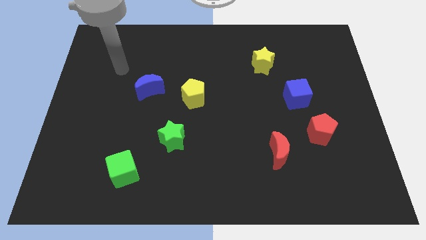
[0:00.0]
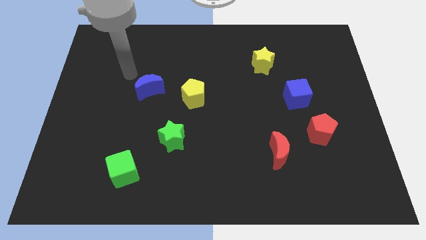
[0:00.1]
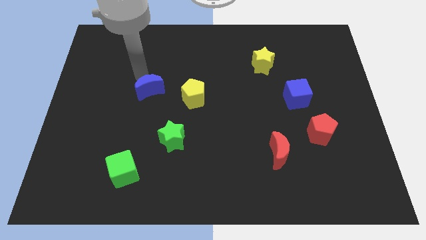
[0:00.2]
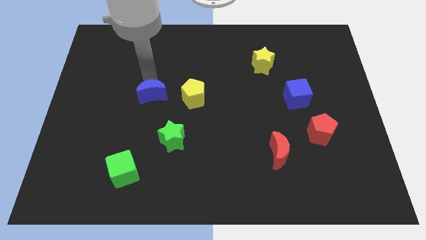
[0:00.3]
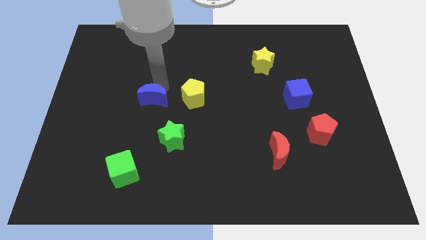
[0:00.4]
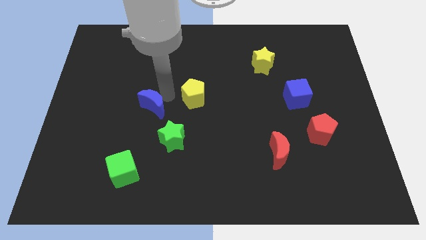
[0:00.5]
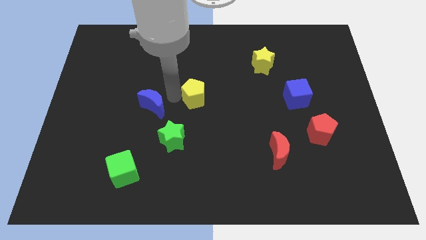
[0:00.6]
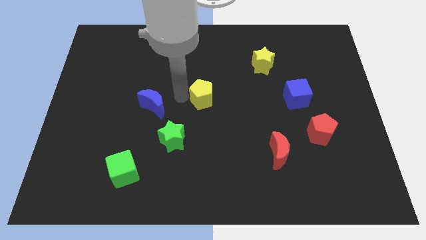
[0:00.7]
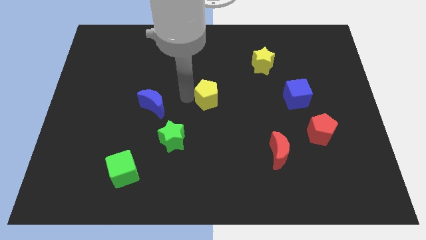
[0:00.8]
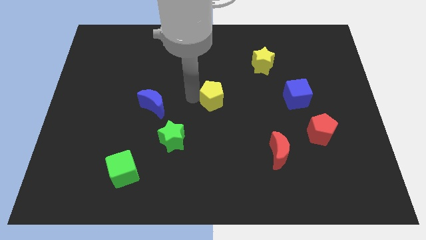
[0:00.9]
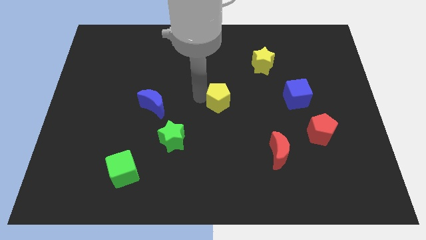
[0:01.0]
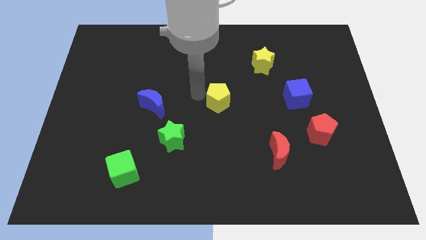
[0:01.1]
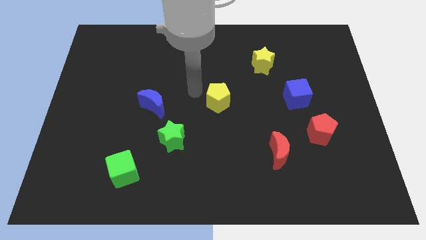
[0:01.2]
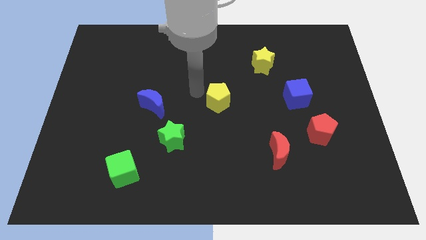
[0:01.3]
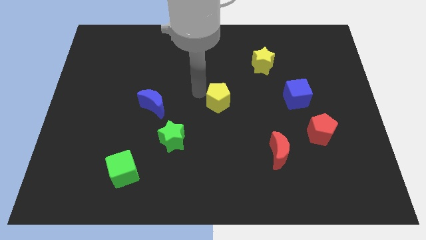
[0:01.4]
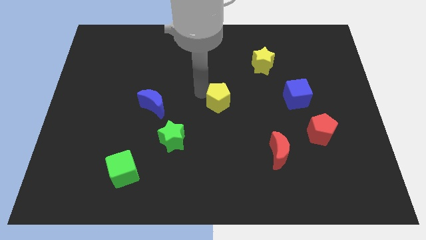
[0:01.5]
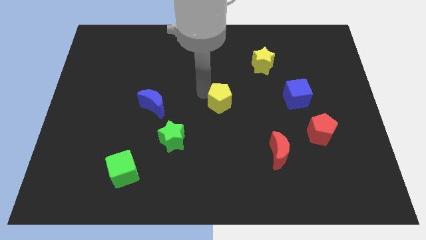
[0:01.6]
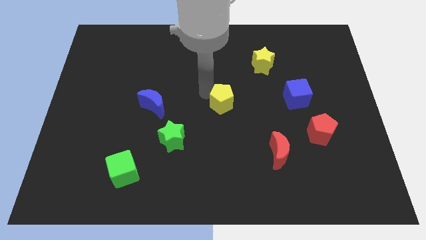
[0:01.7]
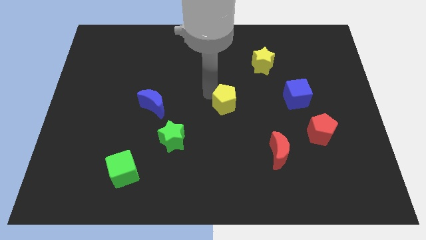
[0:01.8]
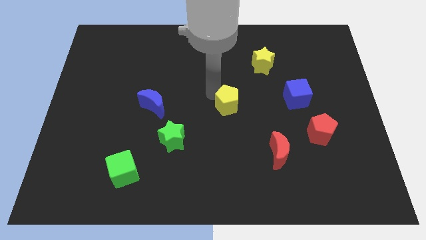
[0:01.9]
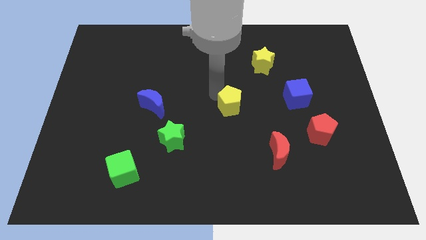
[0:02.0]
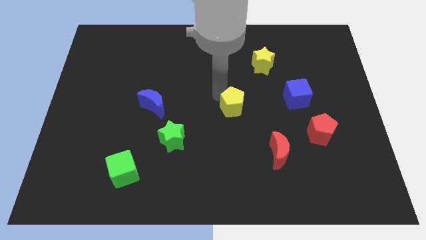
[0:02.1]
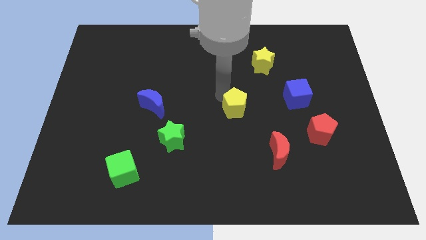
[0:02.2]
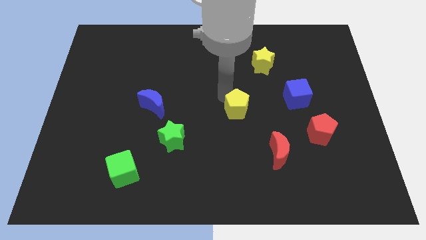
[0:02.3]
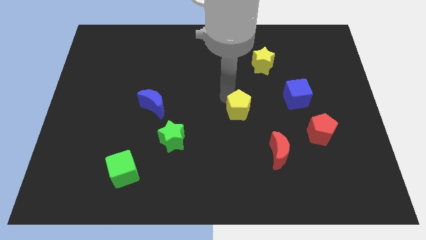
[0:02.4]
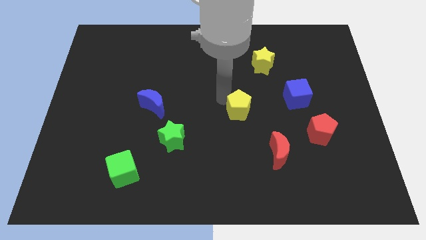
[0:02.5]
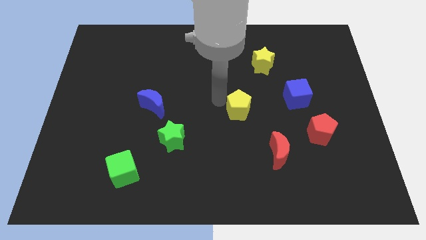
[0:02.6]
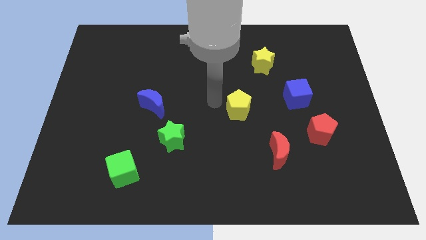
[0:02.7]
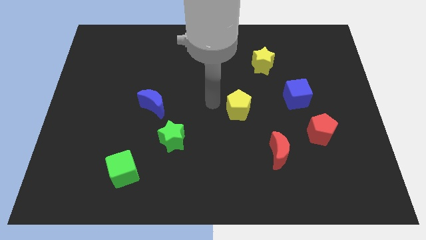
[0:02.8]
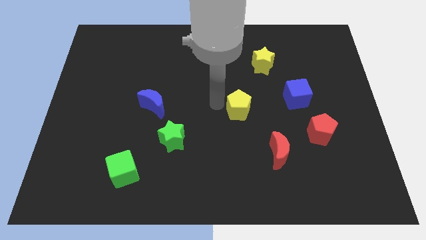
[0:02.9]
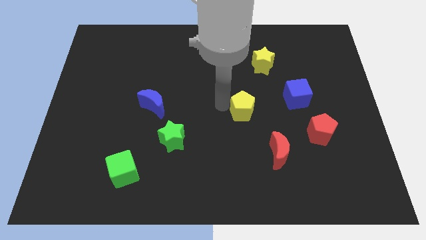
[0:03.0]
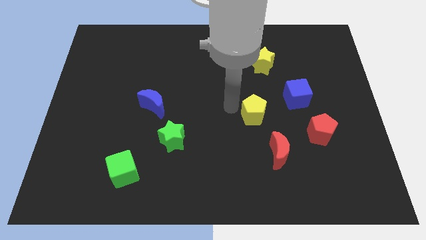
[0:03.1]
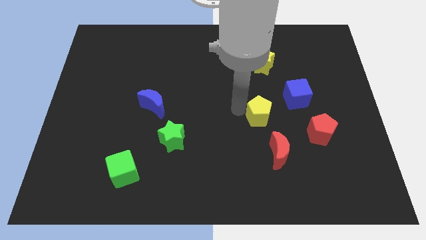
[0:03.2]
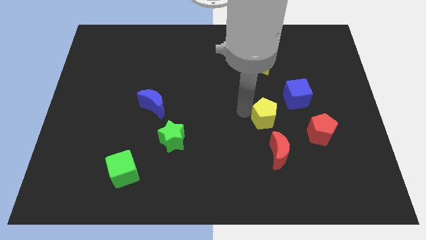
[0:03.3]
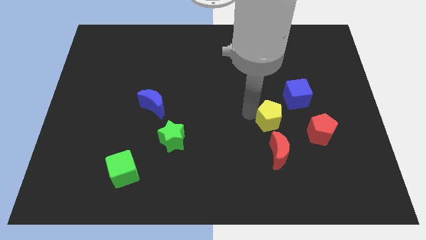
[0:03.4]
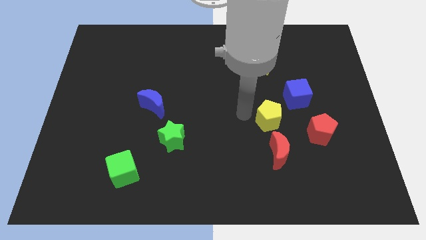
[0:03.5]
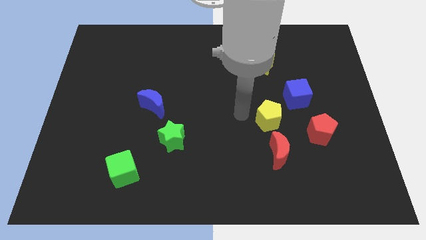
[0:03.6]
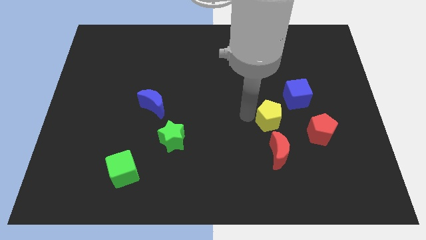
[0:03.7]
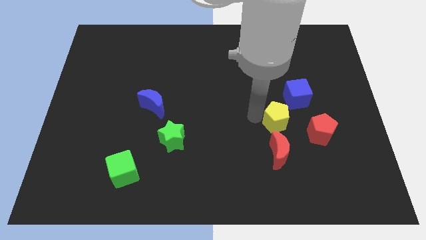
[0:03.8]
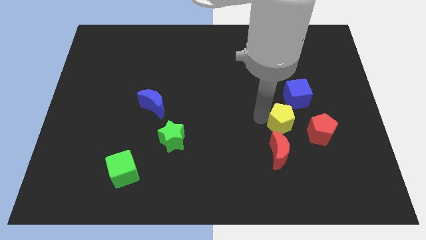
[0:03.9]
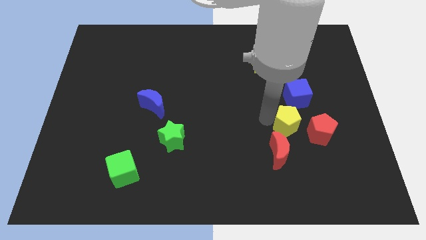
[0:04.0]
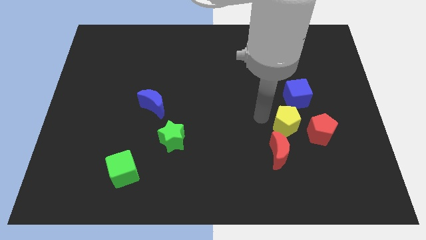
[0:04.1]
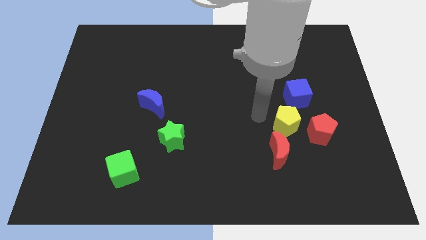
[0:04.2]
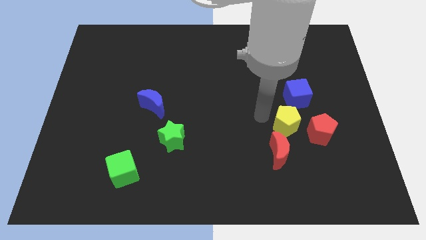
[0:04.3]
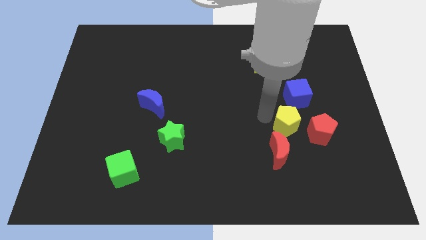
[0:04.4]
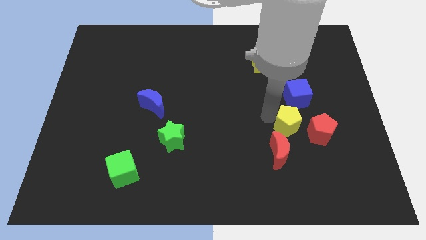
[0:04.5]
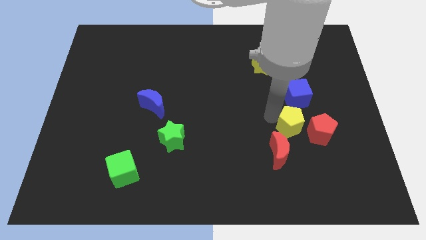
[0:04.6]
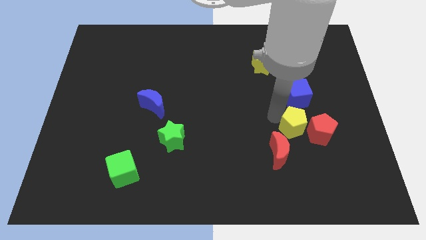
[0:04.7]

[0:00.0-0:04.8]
push the yellow pentagon next to the red pentagon

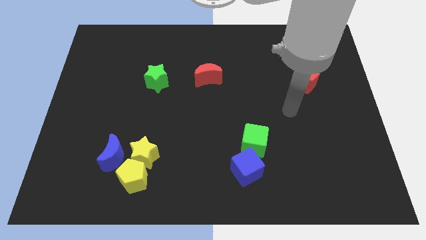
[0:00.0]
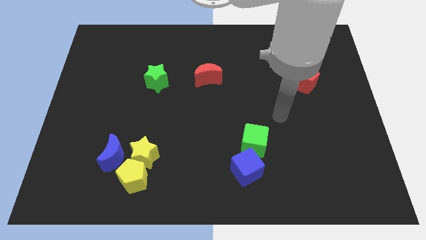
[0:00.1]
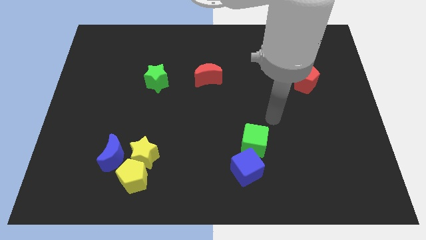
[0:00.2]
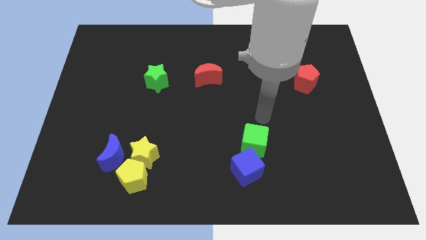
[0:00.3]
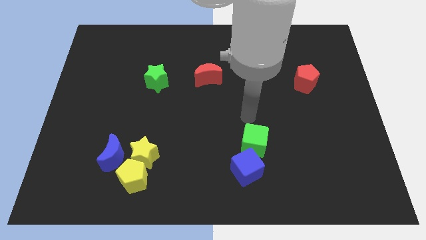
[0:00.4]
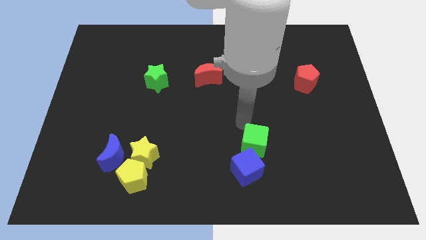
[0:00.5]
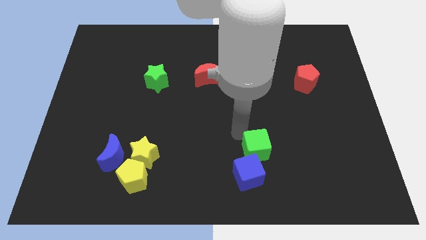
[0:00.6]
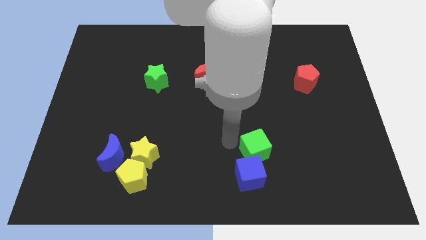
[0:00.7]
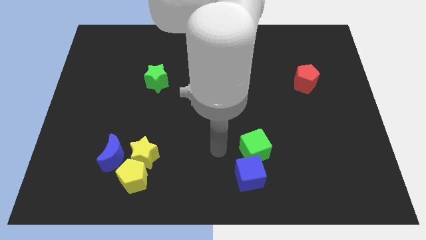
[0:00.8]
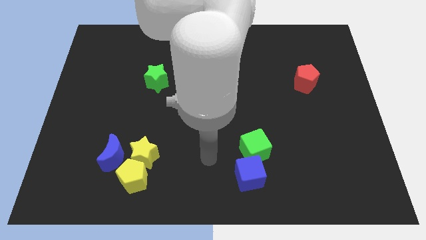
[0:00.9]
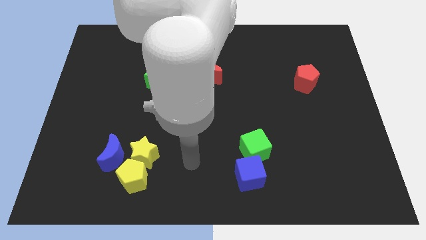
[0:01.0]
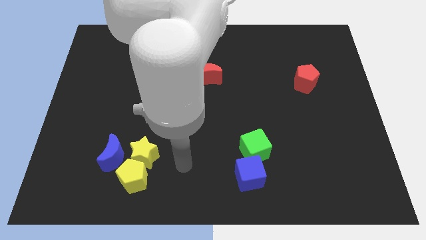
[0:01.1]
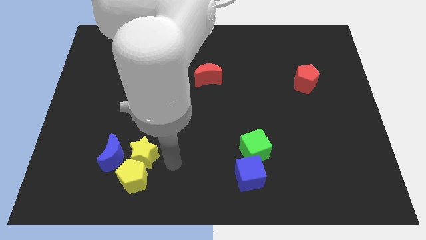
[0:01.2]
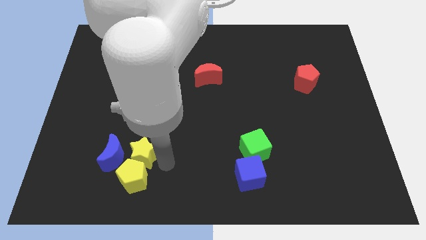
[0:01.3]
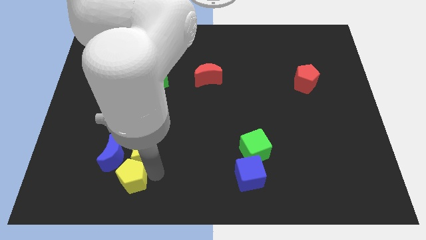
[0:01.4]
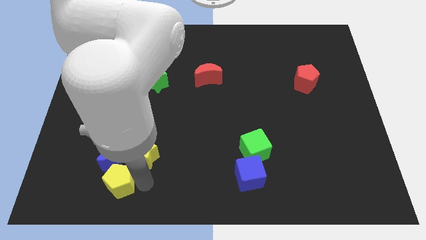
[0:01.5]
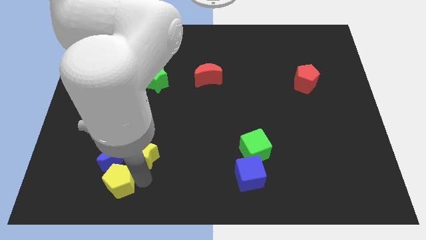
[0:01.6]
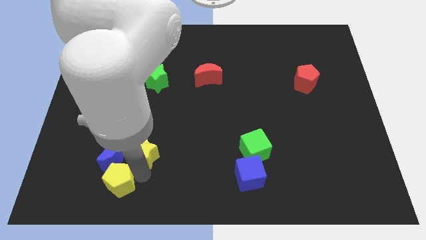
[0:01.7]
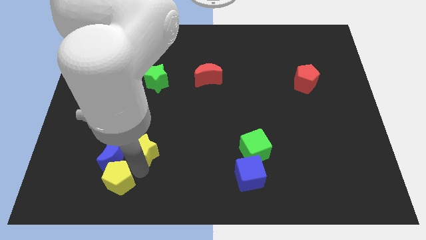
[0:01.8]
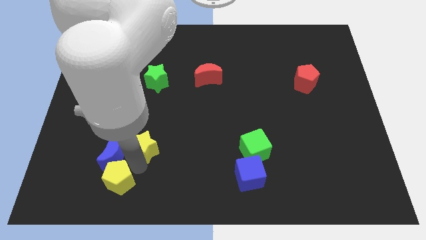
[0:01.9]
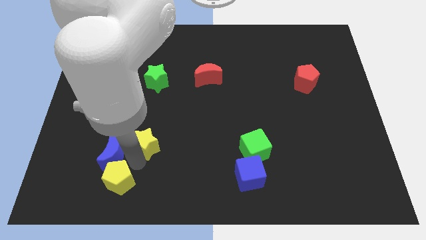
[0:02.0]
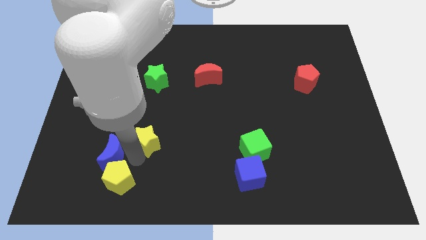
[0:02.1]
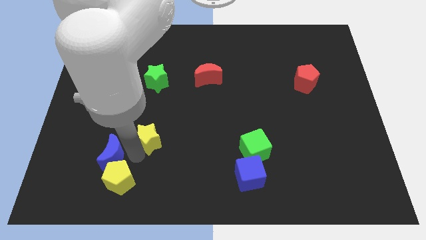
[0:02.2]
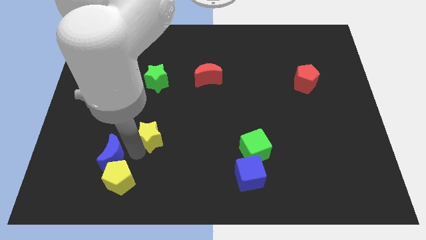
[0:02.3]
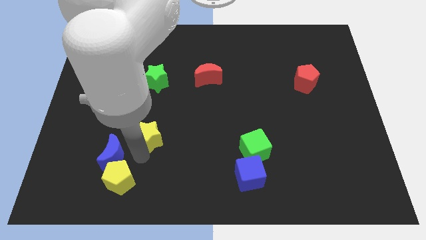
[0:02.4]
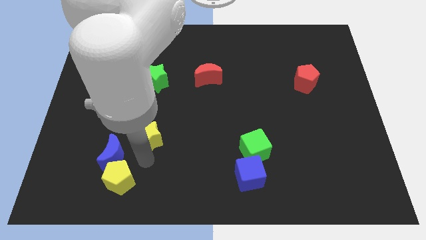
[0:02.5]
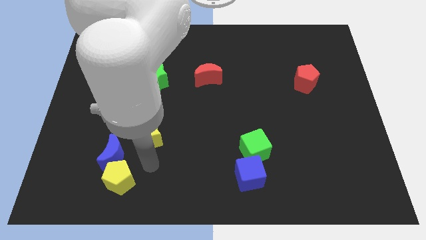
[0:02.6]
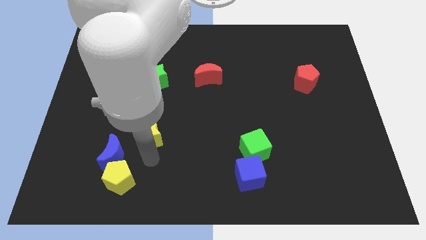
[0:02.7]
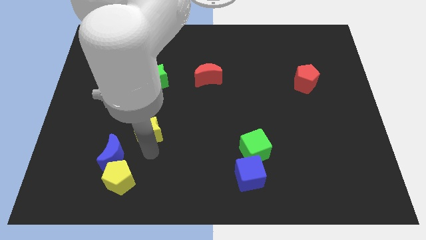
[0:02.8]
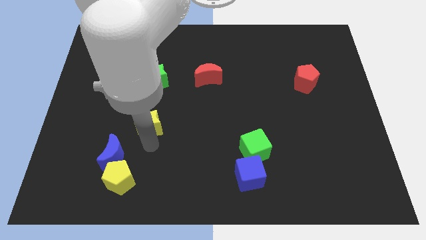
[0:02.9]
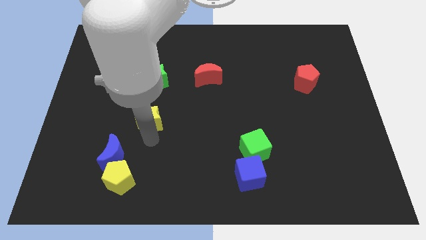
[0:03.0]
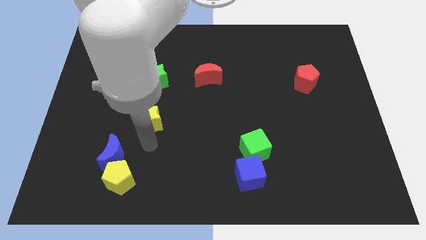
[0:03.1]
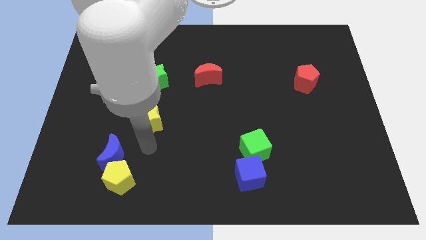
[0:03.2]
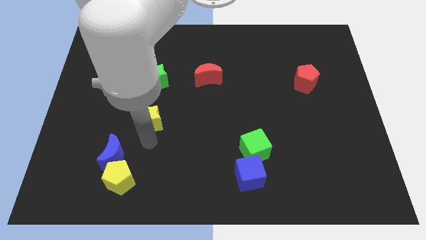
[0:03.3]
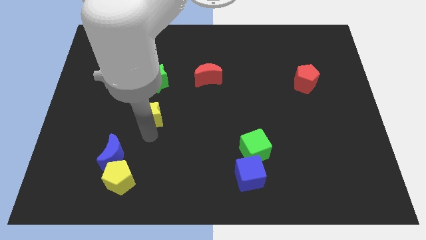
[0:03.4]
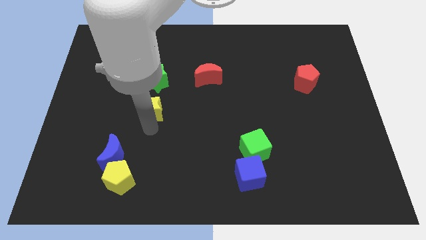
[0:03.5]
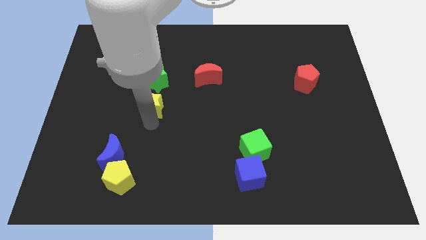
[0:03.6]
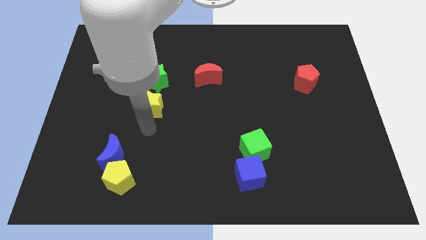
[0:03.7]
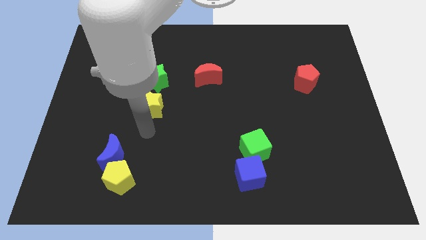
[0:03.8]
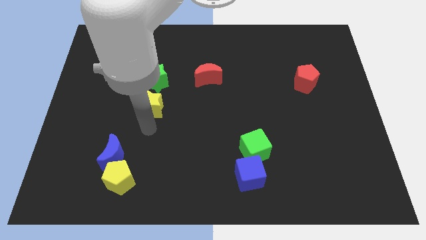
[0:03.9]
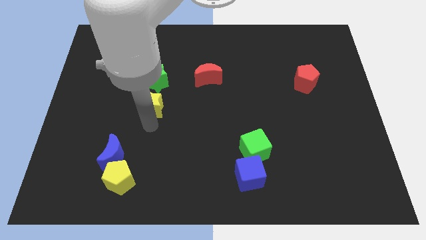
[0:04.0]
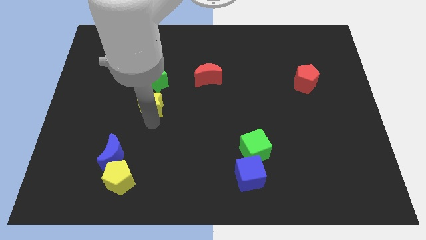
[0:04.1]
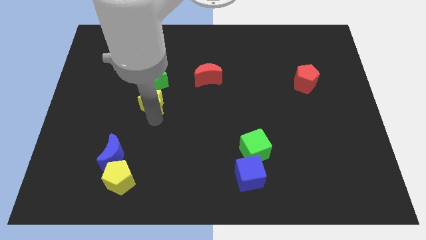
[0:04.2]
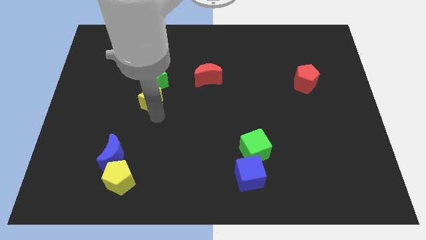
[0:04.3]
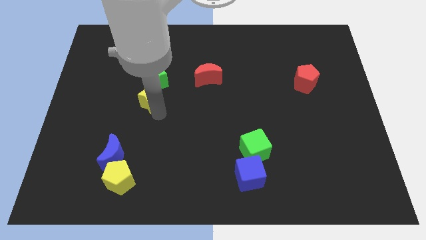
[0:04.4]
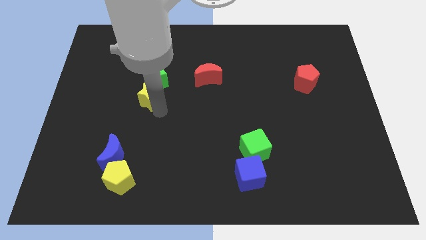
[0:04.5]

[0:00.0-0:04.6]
put the yellow star close to the green star
